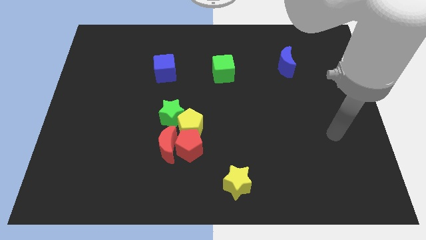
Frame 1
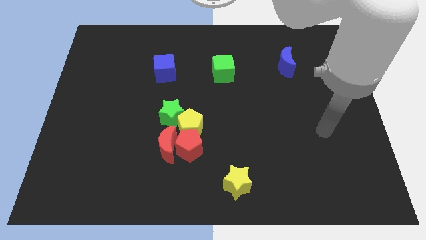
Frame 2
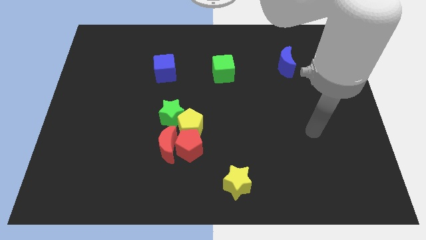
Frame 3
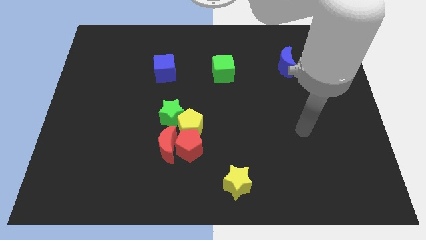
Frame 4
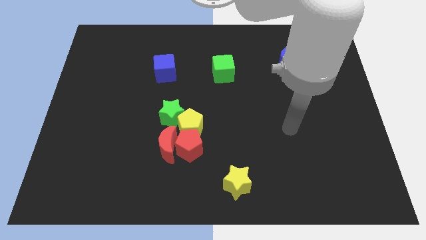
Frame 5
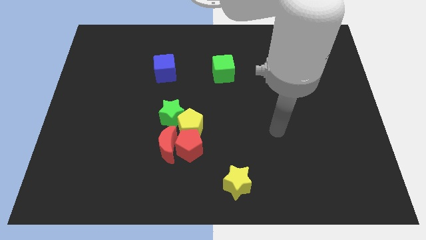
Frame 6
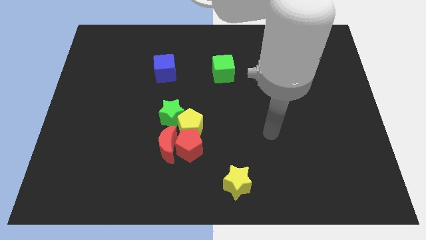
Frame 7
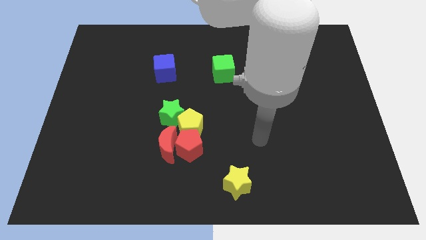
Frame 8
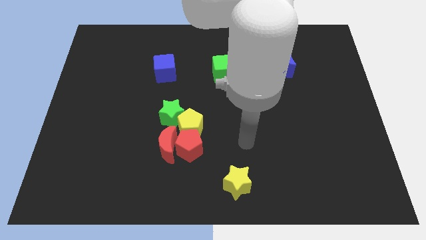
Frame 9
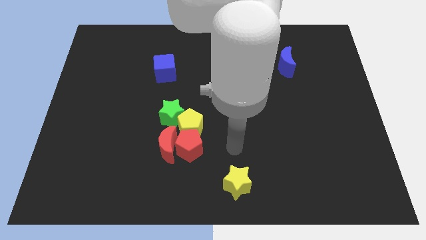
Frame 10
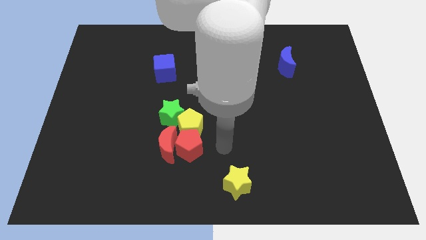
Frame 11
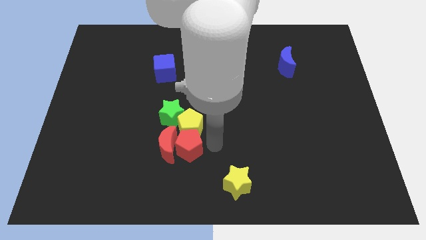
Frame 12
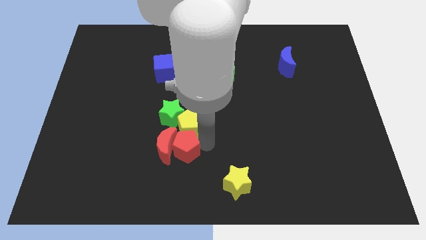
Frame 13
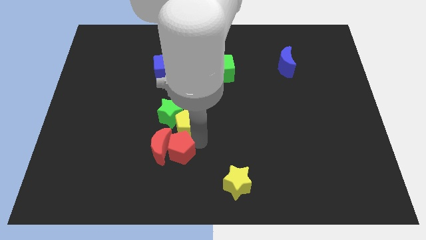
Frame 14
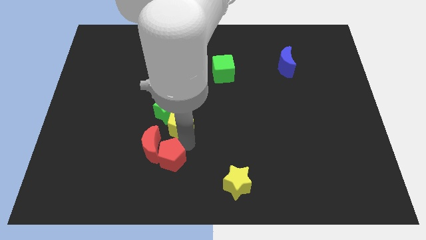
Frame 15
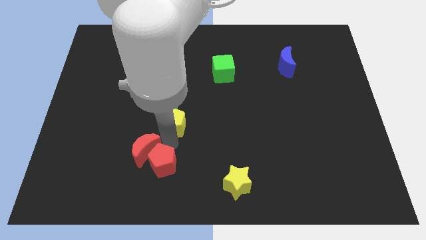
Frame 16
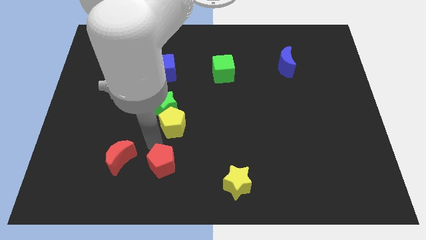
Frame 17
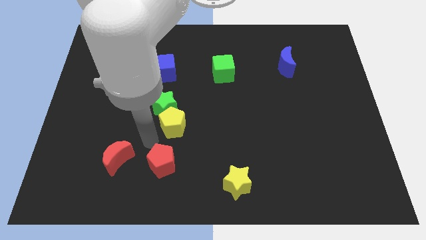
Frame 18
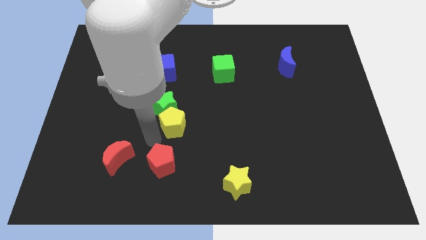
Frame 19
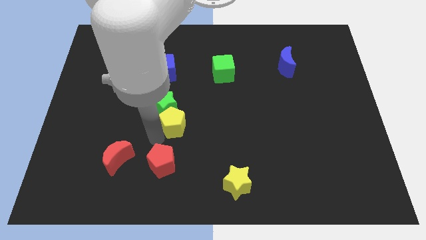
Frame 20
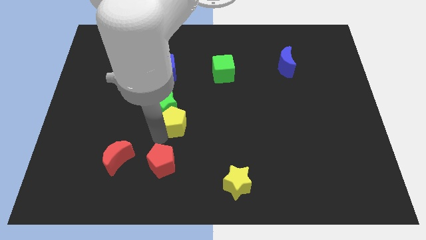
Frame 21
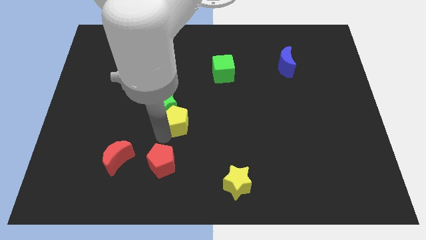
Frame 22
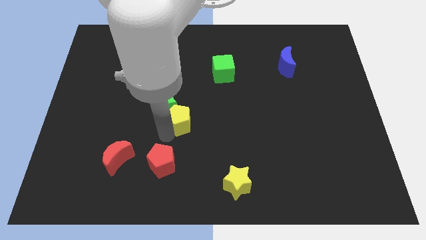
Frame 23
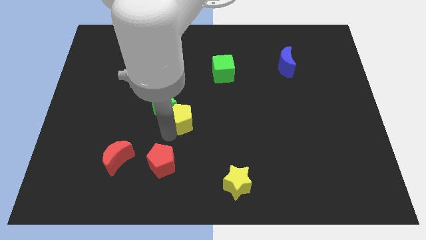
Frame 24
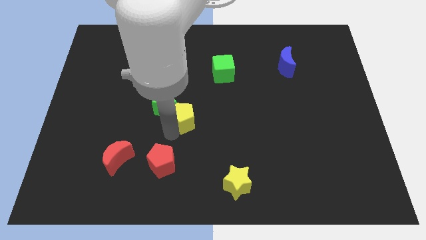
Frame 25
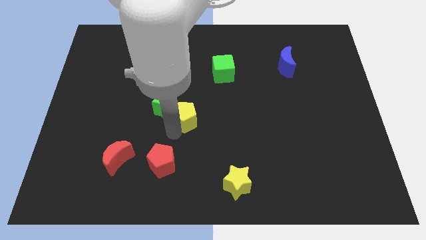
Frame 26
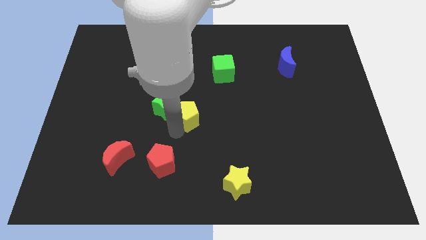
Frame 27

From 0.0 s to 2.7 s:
move the yellow pentagon away from the clump

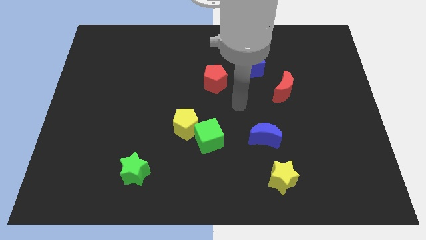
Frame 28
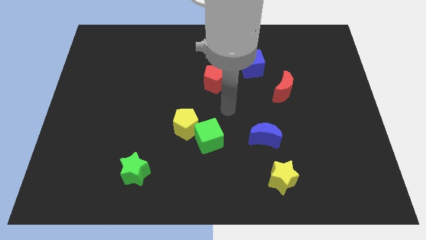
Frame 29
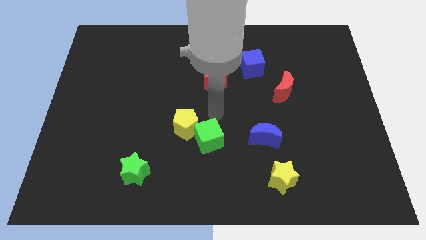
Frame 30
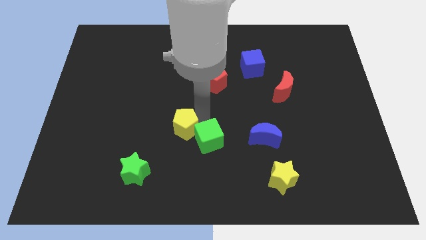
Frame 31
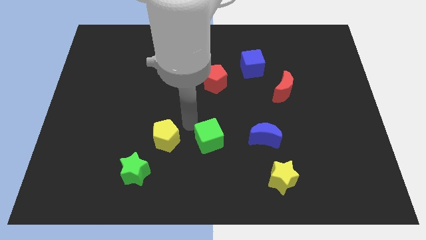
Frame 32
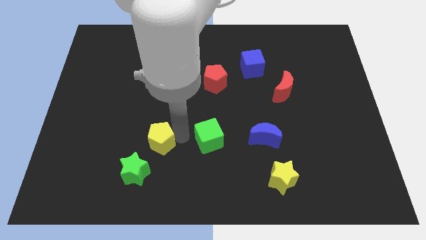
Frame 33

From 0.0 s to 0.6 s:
move the green cube away from the yellow pentagon

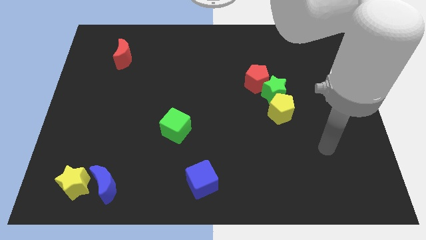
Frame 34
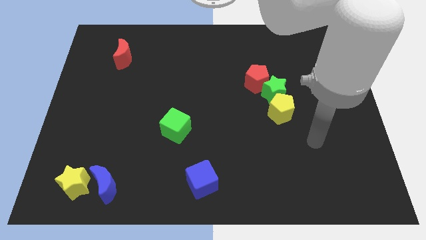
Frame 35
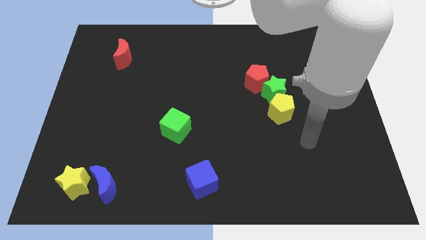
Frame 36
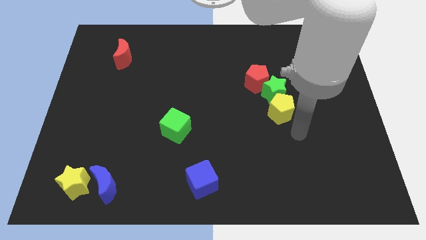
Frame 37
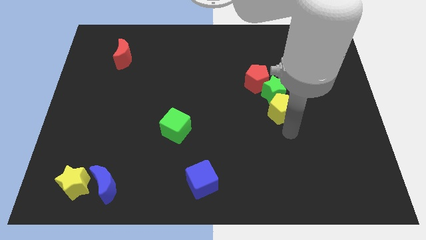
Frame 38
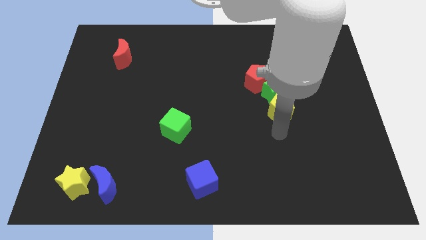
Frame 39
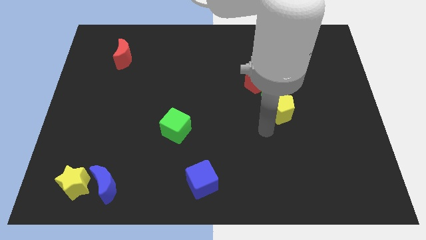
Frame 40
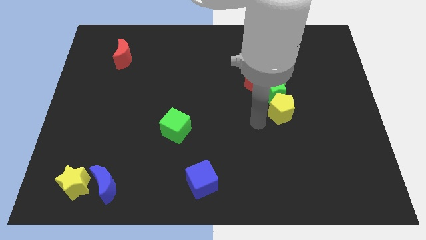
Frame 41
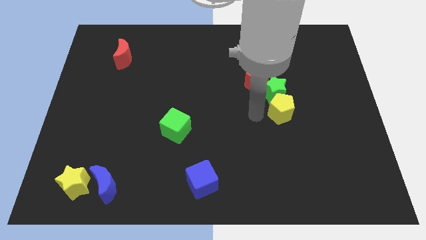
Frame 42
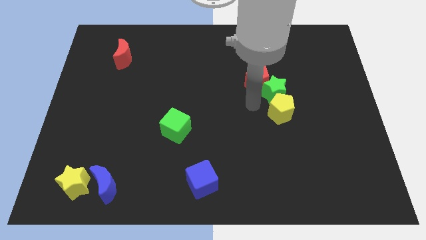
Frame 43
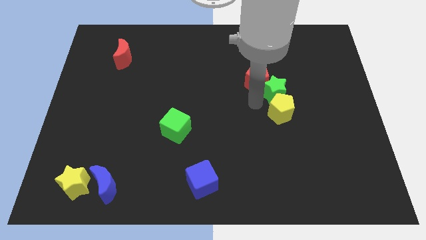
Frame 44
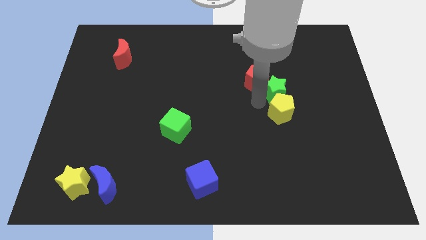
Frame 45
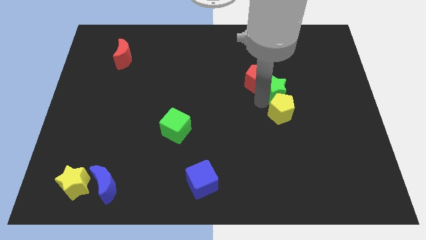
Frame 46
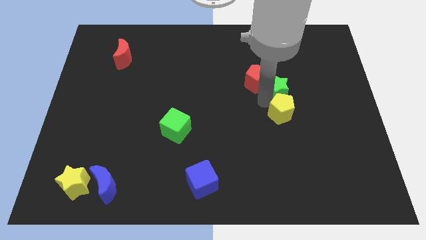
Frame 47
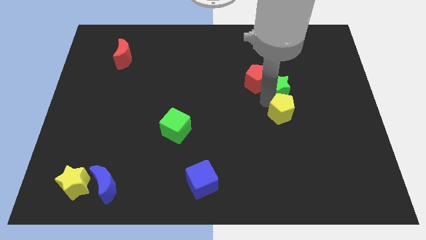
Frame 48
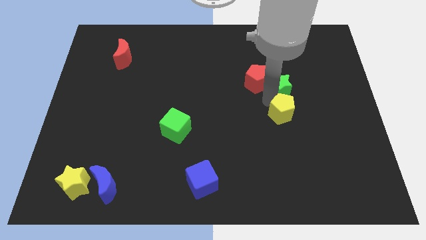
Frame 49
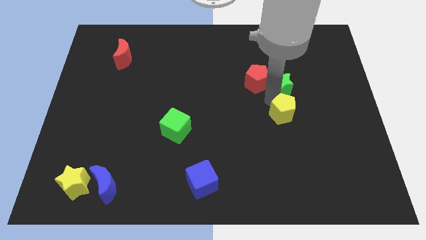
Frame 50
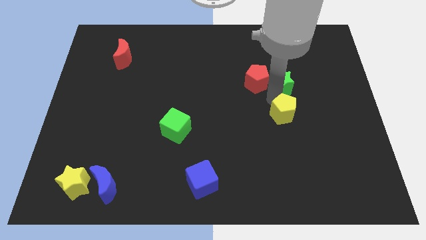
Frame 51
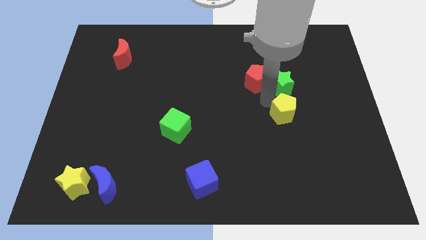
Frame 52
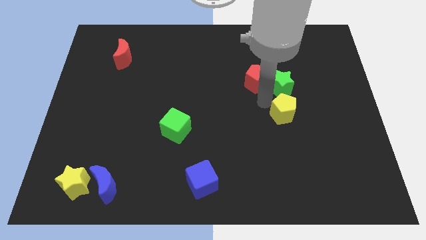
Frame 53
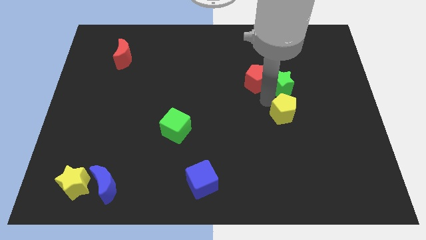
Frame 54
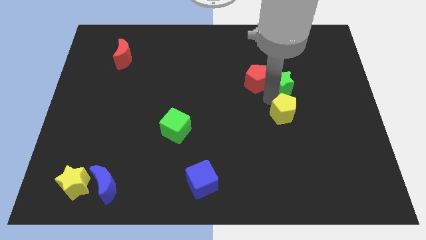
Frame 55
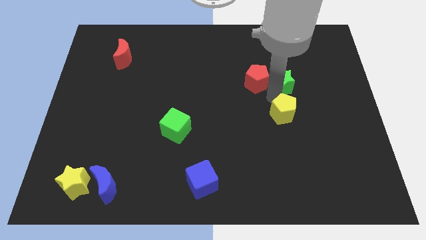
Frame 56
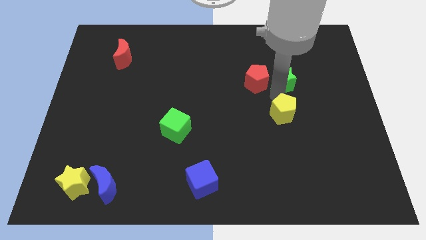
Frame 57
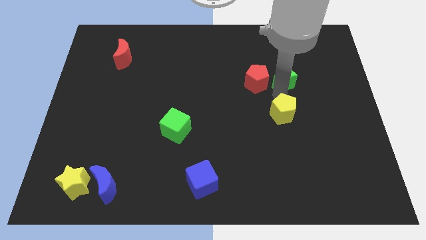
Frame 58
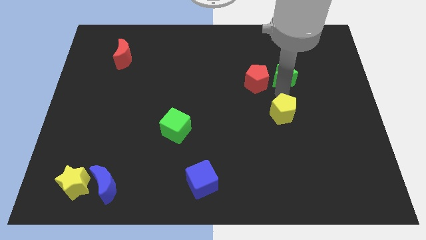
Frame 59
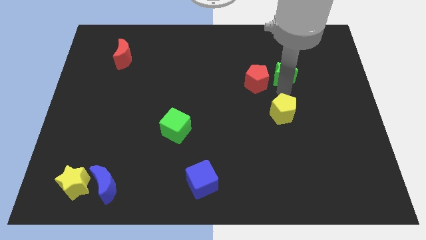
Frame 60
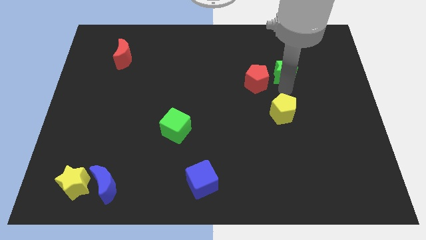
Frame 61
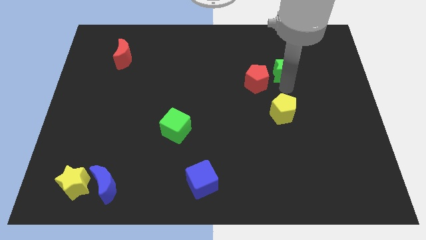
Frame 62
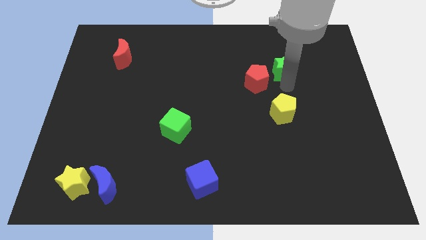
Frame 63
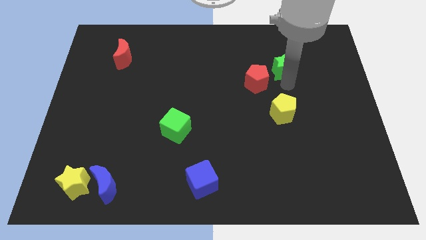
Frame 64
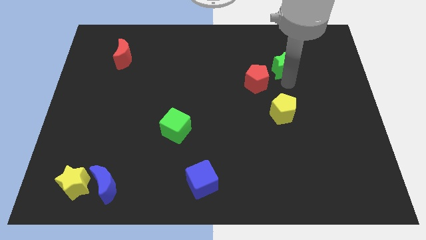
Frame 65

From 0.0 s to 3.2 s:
move the green star away from the red pentagon and yellow pentagon

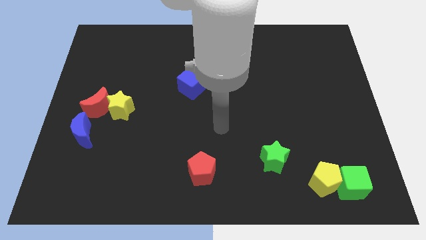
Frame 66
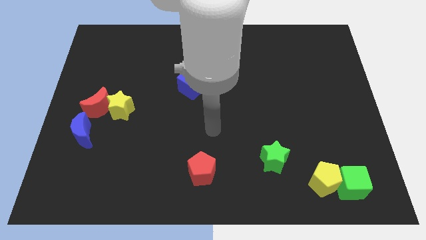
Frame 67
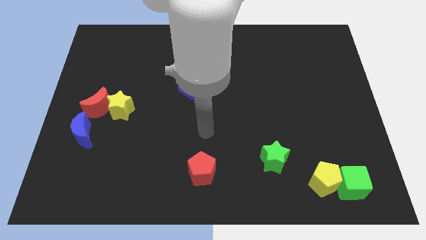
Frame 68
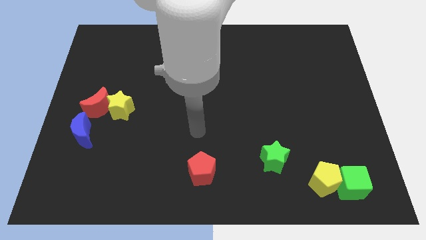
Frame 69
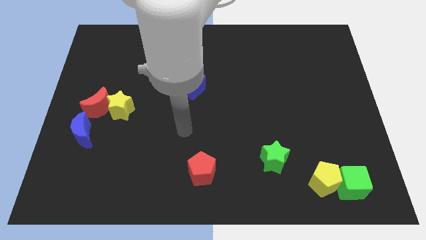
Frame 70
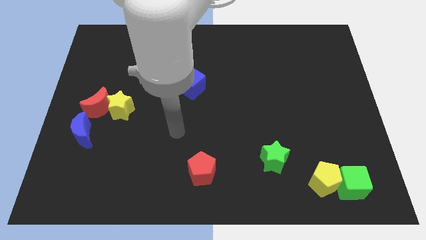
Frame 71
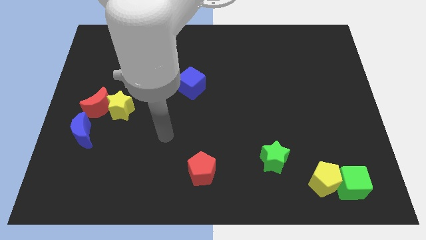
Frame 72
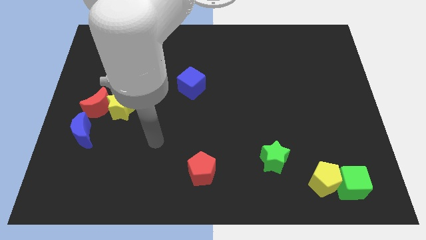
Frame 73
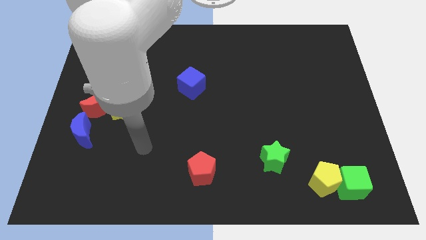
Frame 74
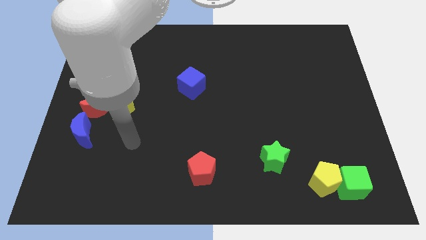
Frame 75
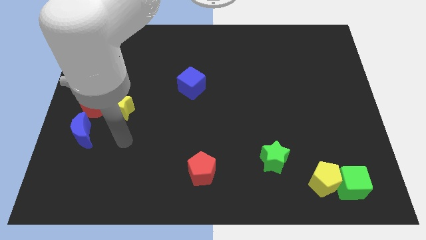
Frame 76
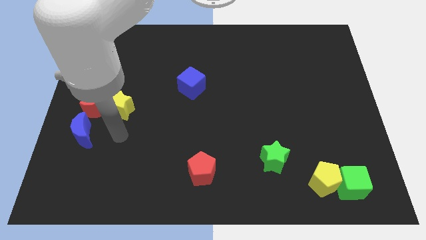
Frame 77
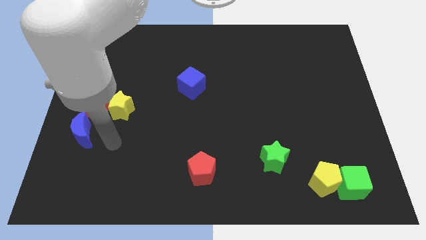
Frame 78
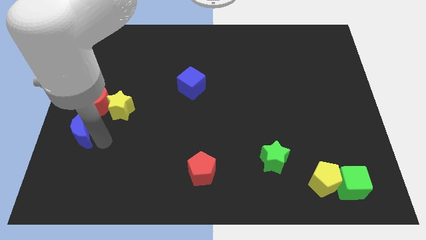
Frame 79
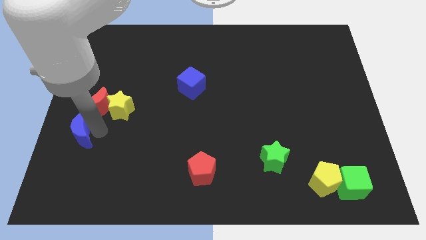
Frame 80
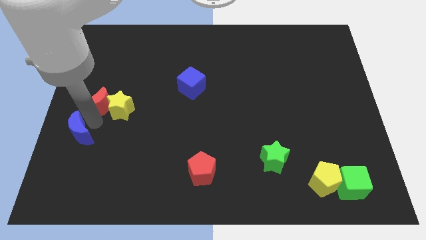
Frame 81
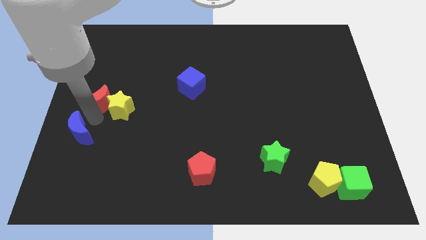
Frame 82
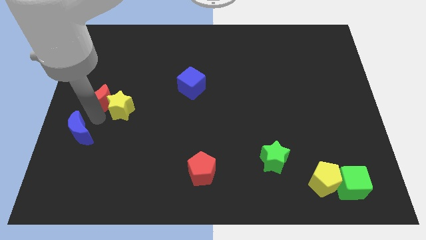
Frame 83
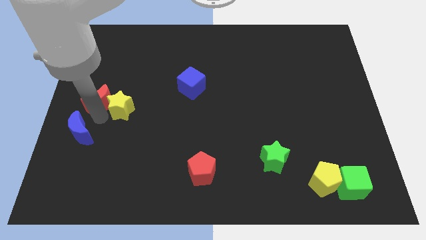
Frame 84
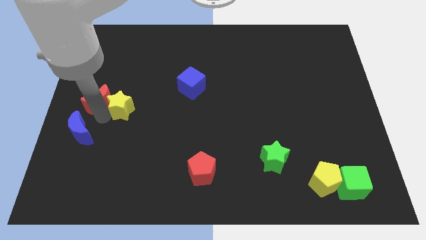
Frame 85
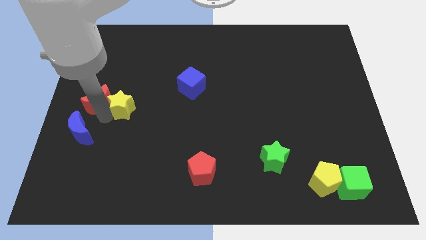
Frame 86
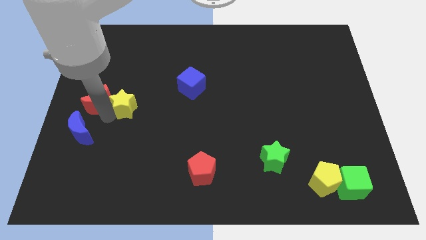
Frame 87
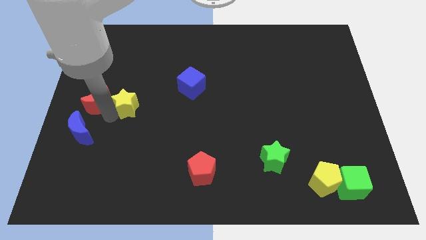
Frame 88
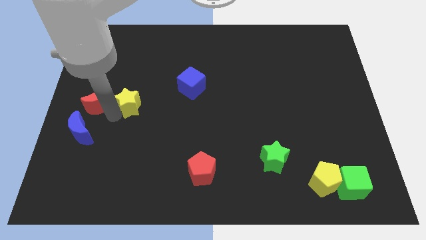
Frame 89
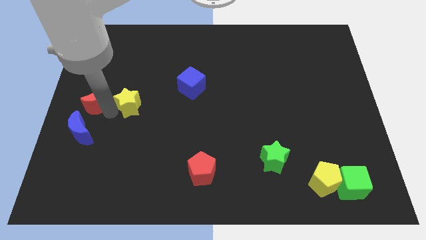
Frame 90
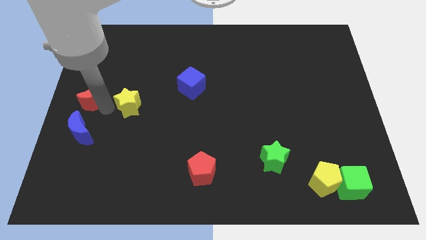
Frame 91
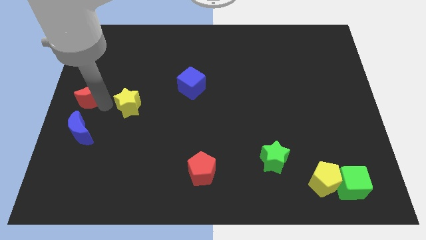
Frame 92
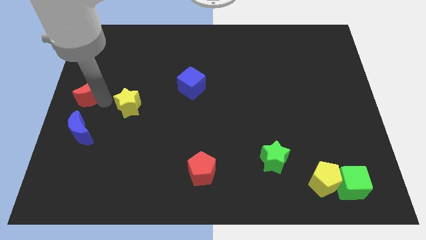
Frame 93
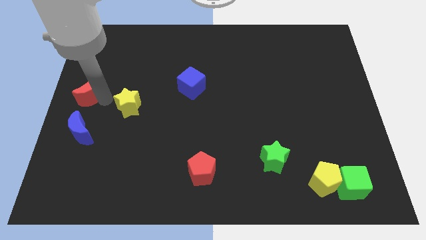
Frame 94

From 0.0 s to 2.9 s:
pull the yellow star apart from the red moon
